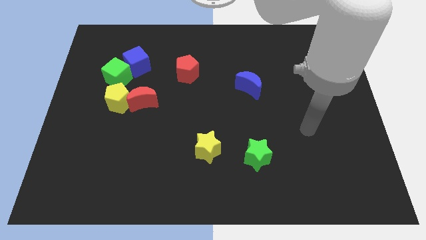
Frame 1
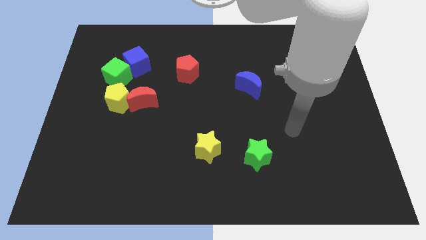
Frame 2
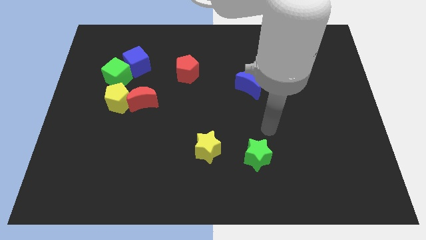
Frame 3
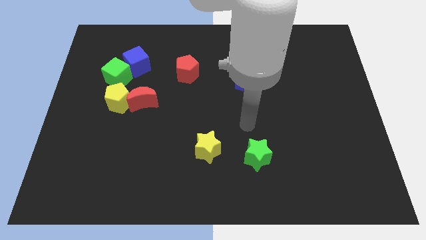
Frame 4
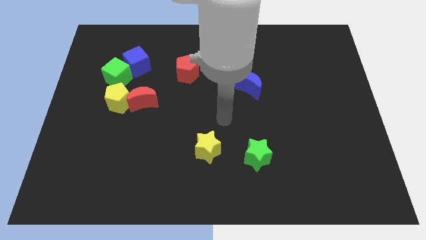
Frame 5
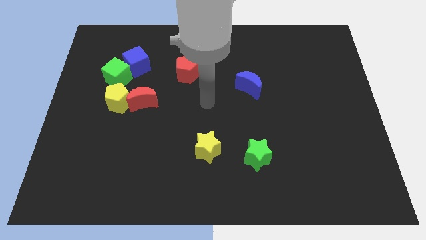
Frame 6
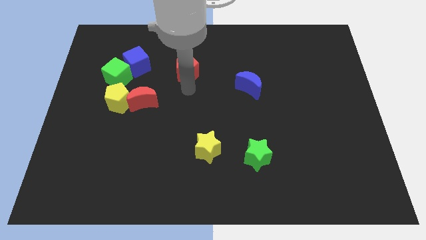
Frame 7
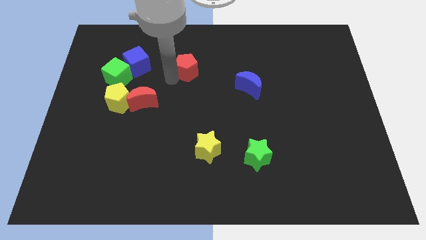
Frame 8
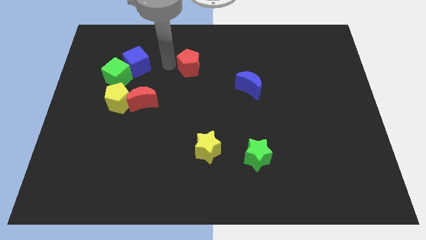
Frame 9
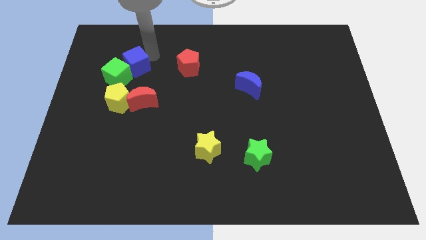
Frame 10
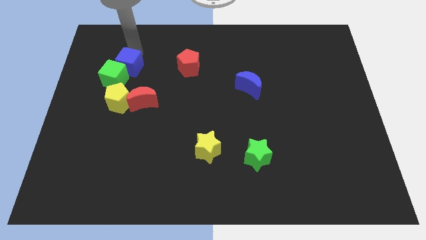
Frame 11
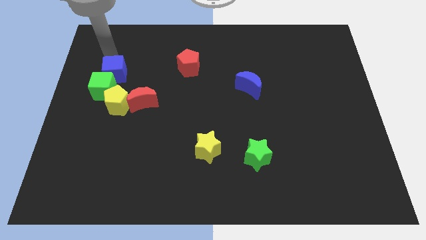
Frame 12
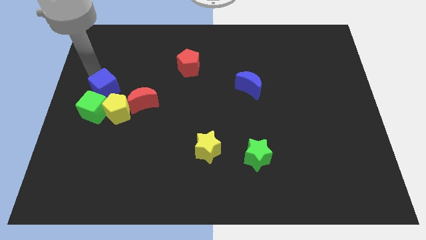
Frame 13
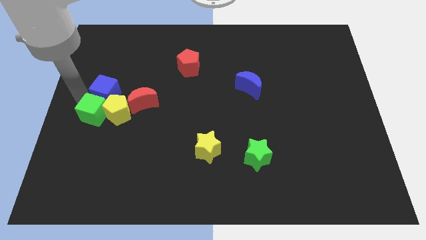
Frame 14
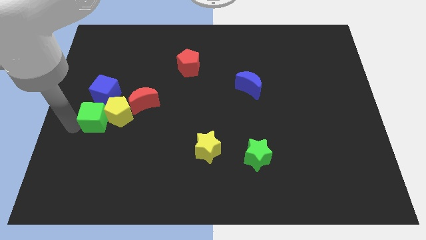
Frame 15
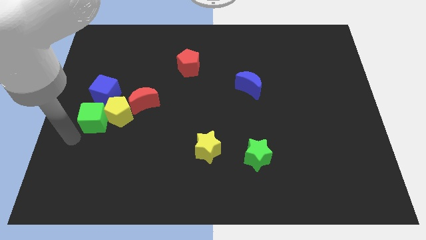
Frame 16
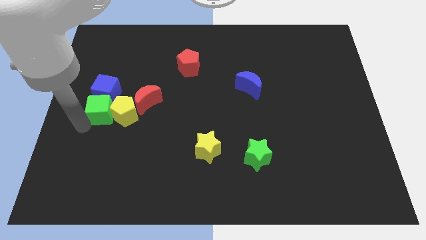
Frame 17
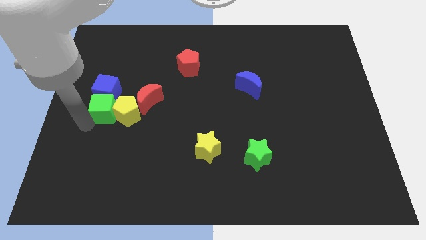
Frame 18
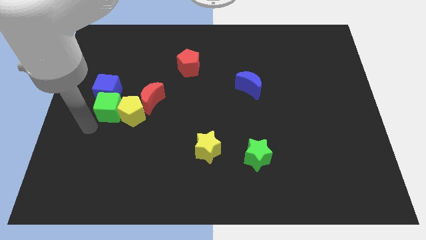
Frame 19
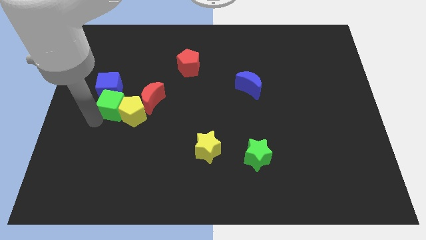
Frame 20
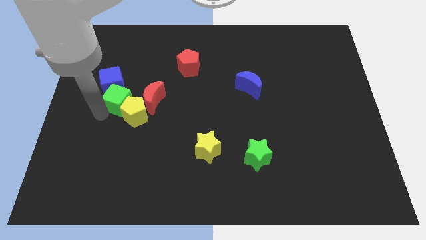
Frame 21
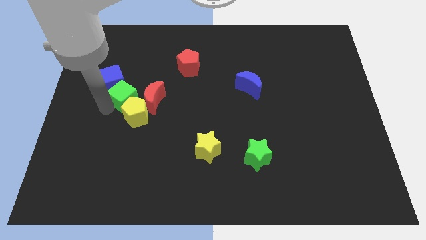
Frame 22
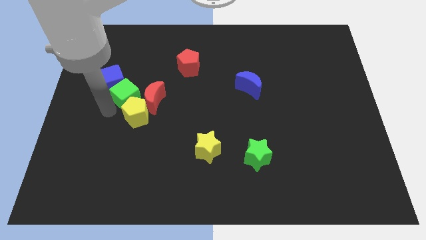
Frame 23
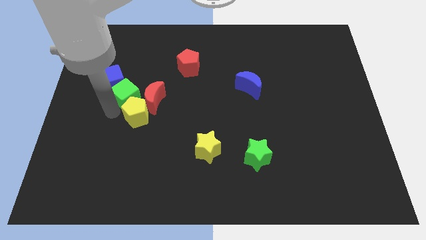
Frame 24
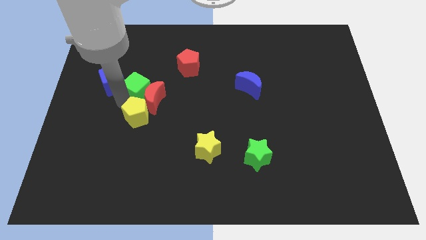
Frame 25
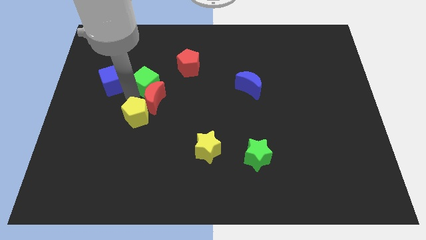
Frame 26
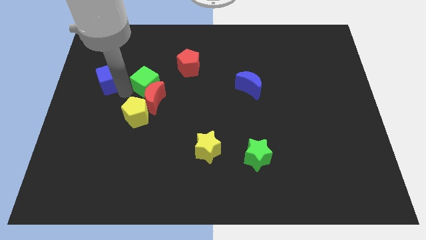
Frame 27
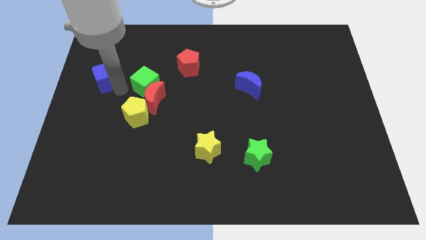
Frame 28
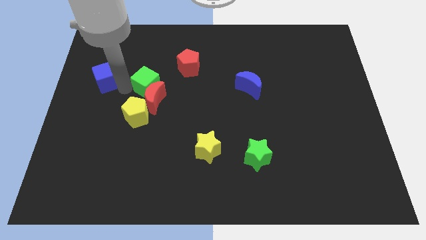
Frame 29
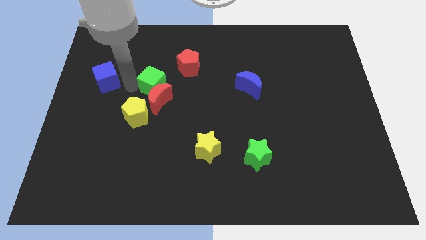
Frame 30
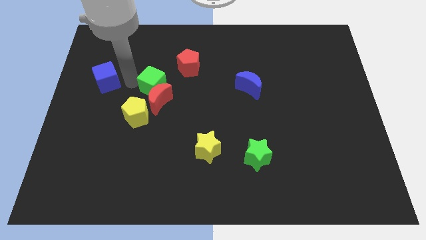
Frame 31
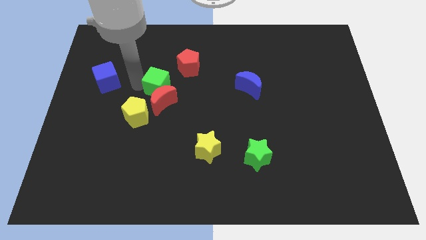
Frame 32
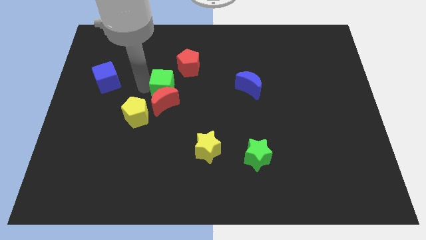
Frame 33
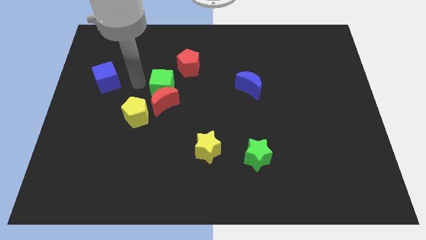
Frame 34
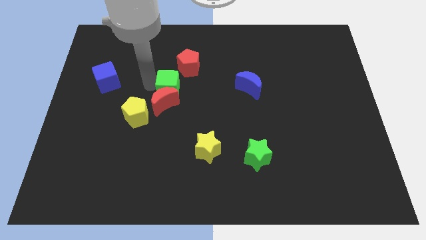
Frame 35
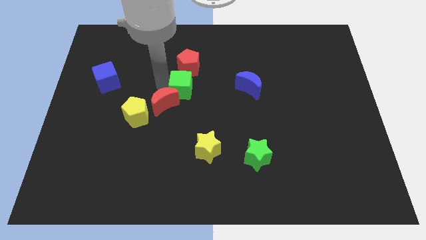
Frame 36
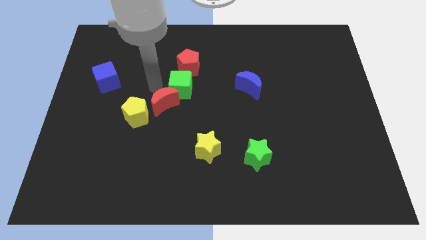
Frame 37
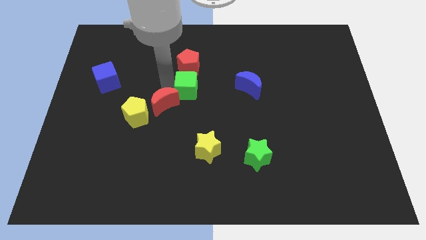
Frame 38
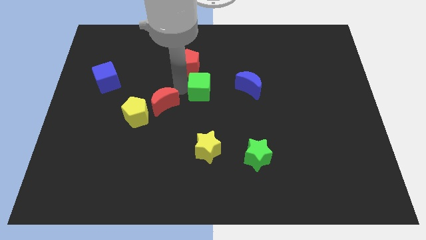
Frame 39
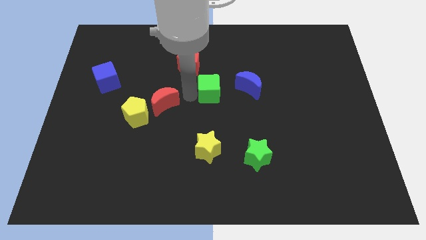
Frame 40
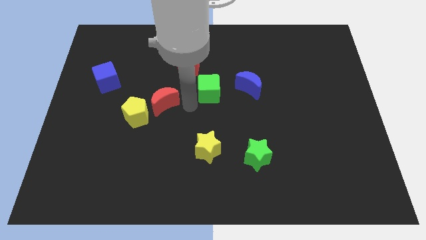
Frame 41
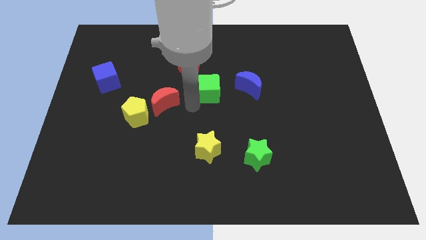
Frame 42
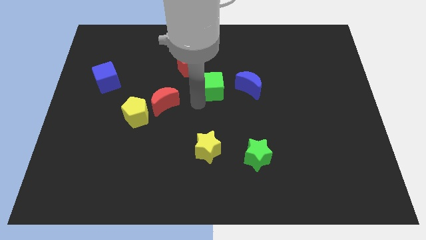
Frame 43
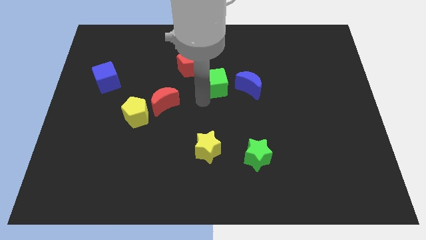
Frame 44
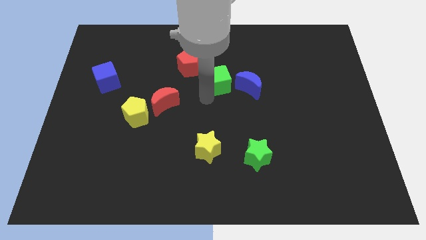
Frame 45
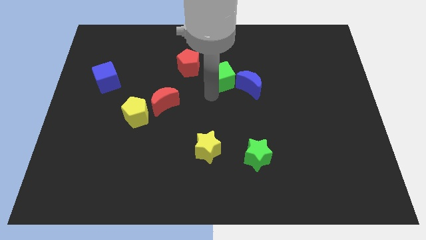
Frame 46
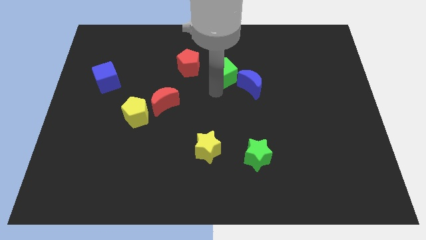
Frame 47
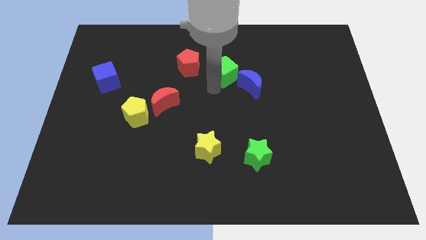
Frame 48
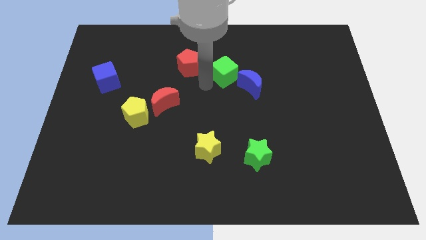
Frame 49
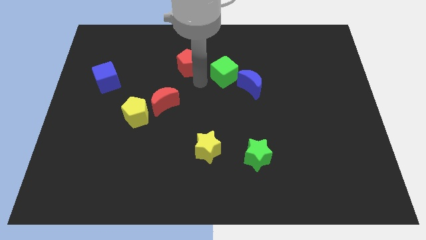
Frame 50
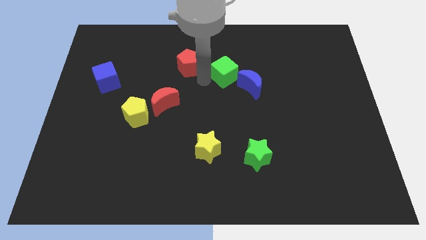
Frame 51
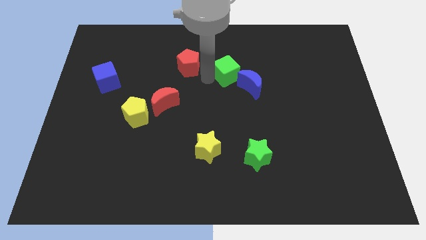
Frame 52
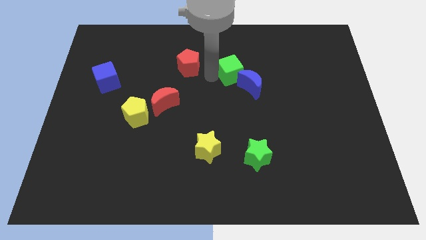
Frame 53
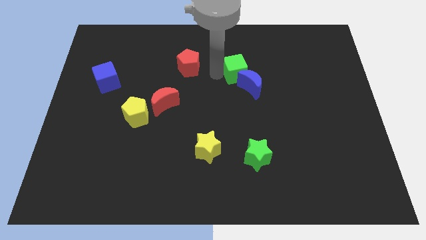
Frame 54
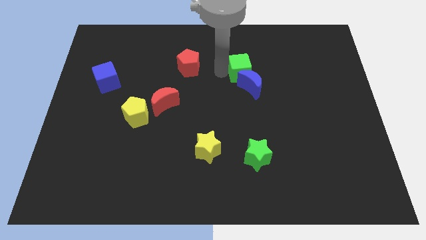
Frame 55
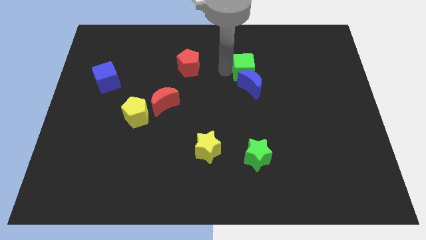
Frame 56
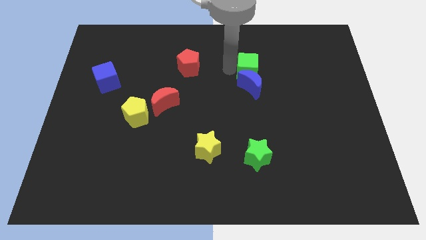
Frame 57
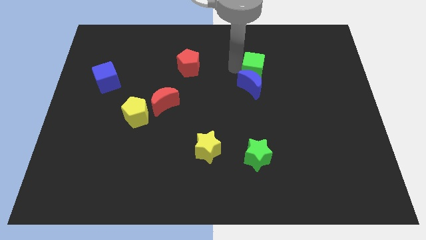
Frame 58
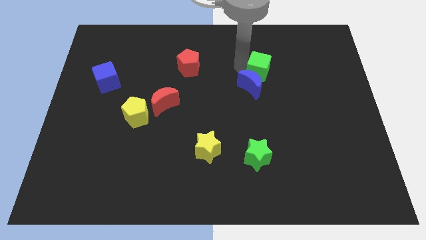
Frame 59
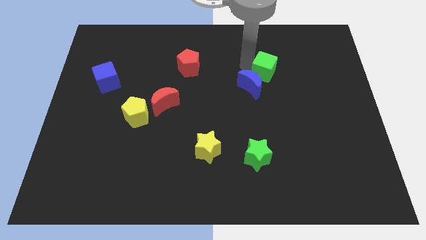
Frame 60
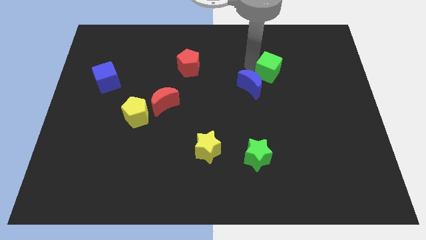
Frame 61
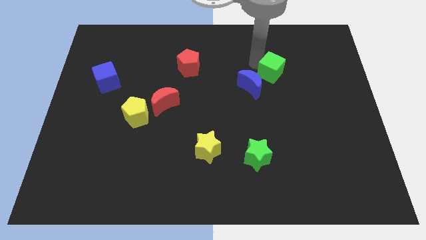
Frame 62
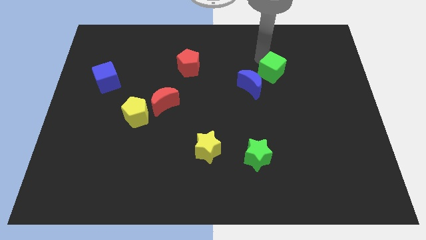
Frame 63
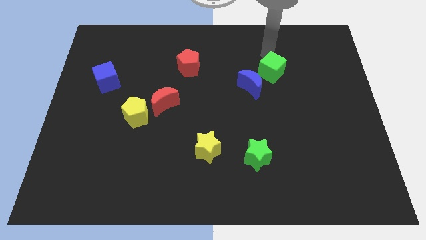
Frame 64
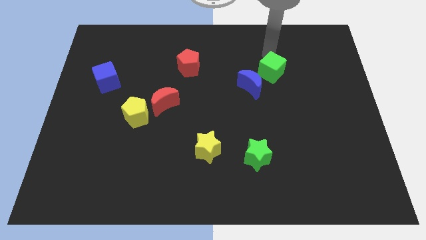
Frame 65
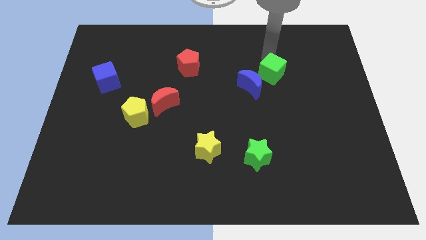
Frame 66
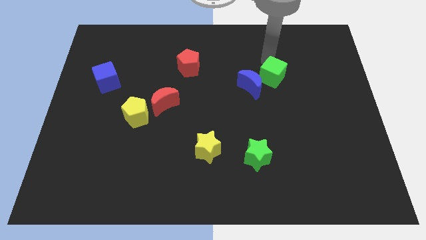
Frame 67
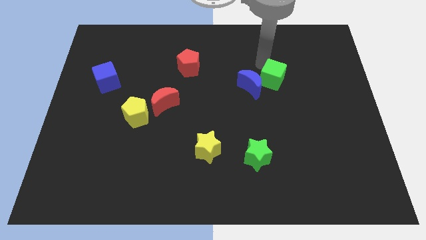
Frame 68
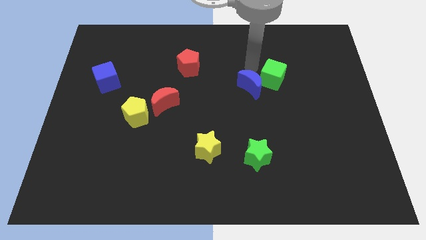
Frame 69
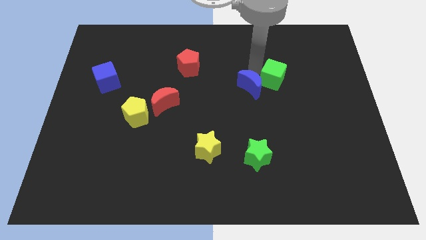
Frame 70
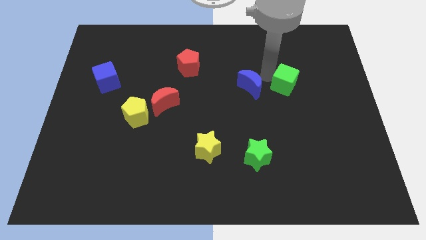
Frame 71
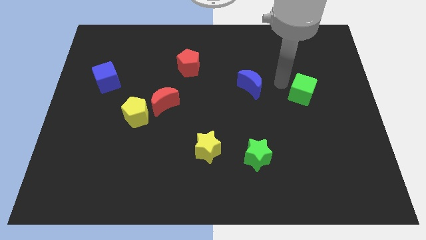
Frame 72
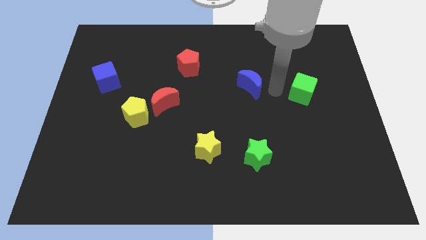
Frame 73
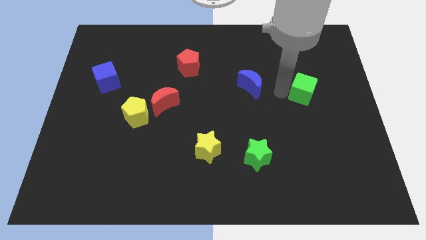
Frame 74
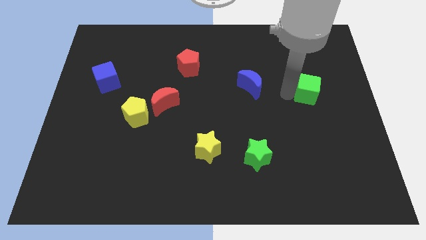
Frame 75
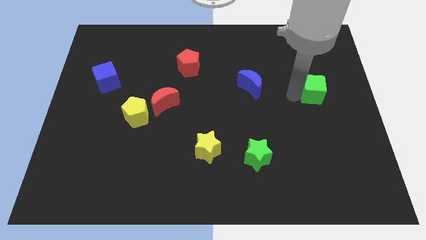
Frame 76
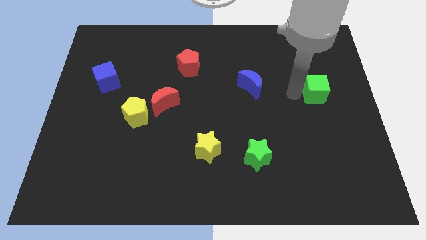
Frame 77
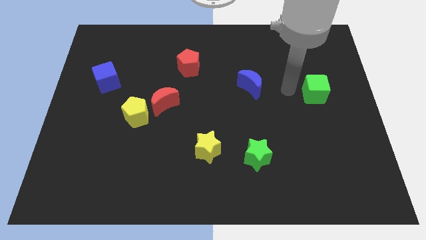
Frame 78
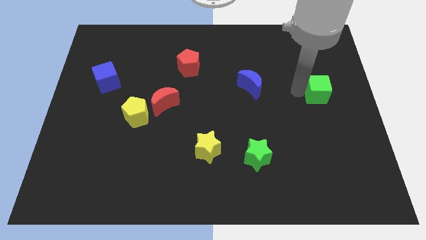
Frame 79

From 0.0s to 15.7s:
put the green cube to the center right
